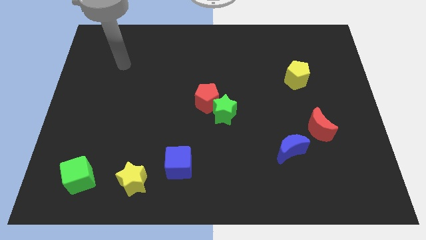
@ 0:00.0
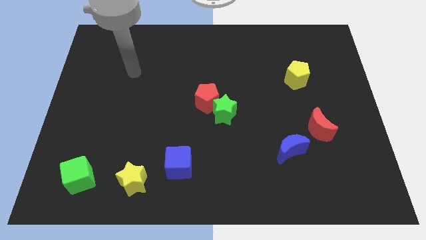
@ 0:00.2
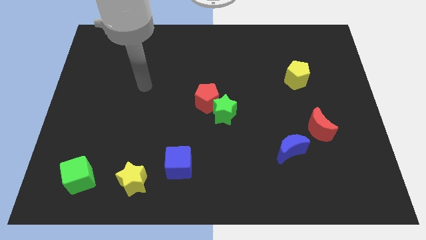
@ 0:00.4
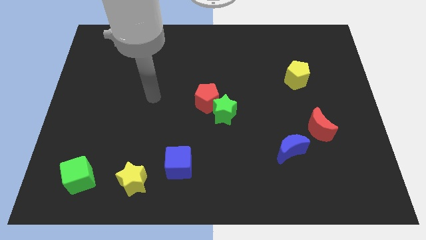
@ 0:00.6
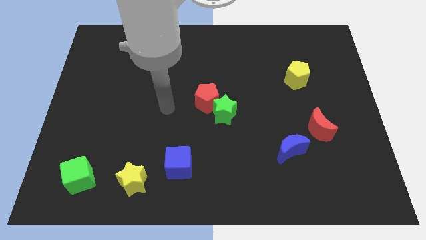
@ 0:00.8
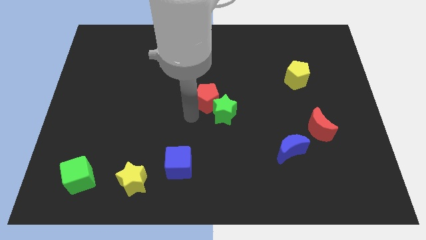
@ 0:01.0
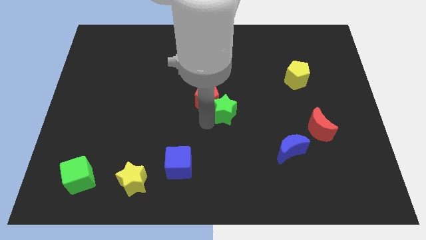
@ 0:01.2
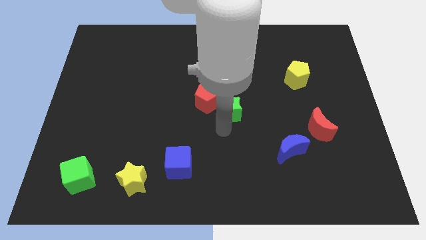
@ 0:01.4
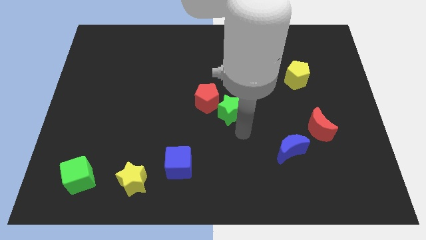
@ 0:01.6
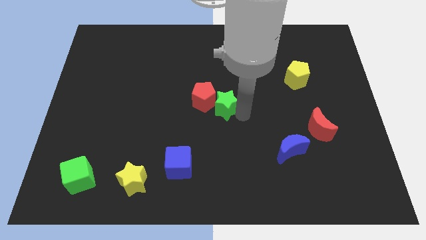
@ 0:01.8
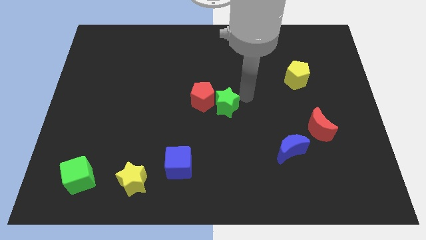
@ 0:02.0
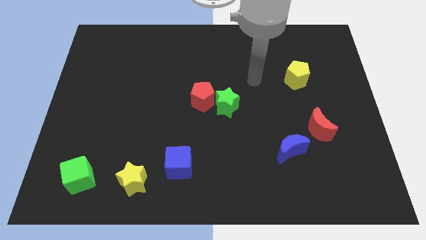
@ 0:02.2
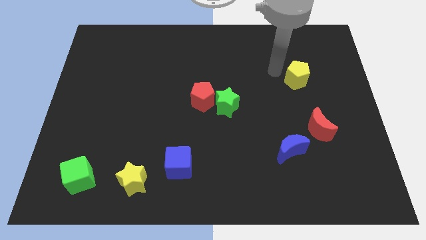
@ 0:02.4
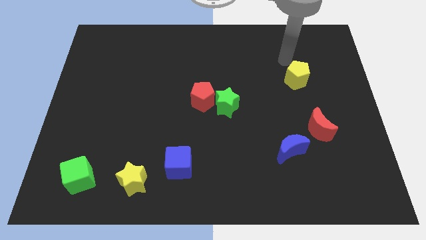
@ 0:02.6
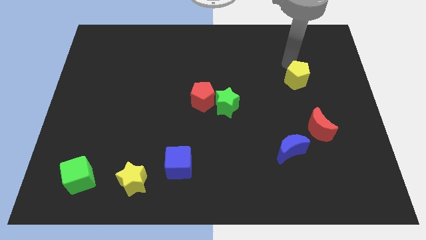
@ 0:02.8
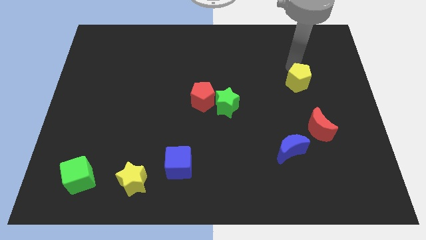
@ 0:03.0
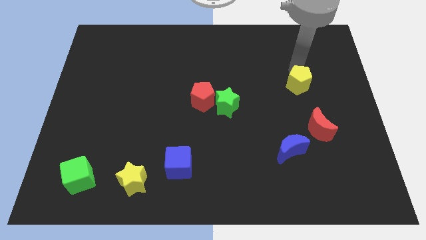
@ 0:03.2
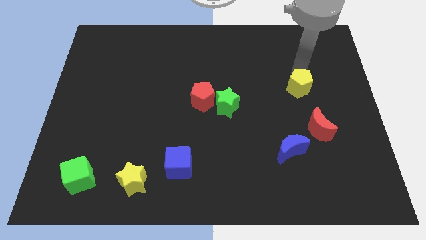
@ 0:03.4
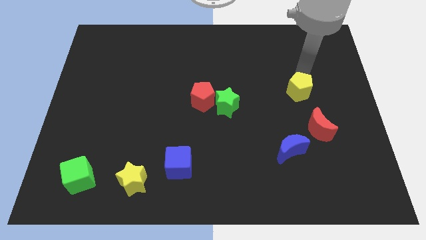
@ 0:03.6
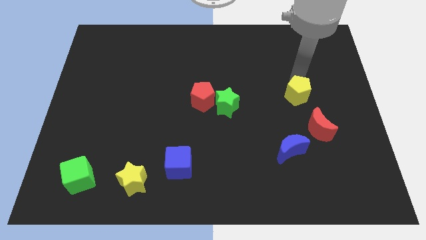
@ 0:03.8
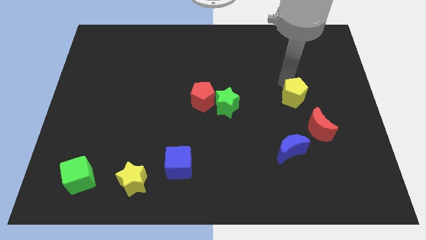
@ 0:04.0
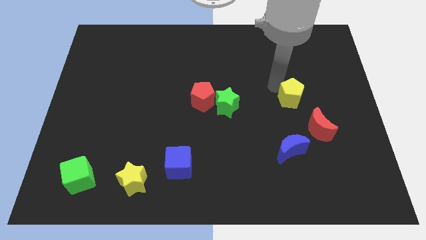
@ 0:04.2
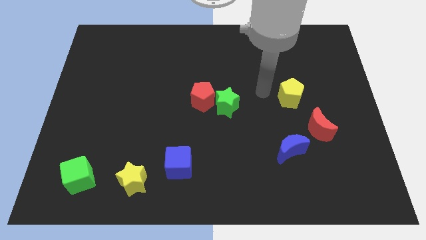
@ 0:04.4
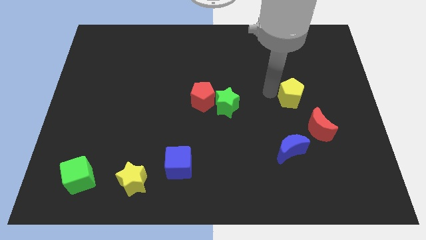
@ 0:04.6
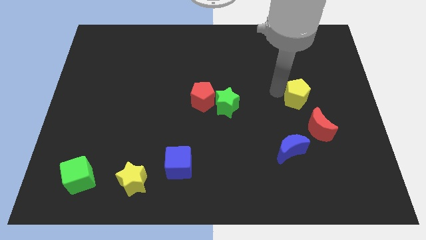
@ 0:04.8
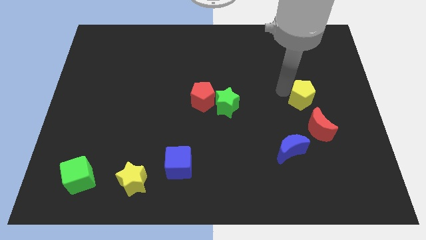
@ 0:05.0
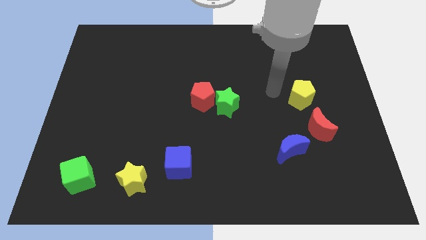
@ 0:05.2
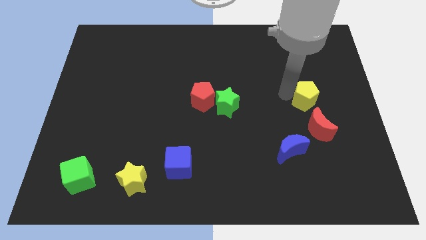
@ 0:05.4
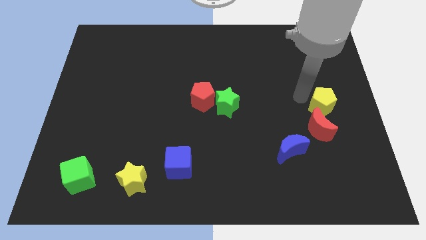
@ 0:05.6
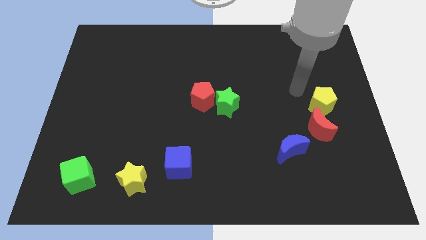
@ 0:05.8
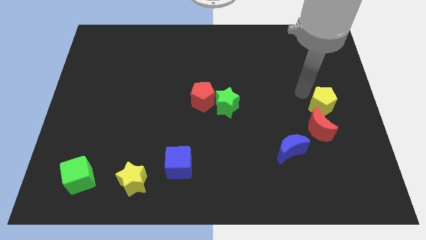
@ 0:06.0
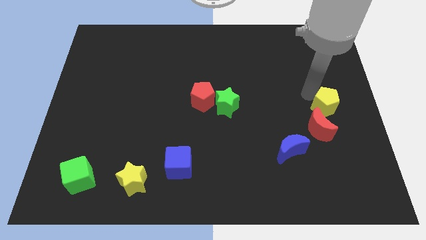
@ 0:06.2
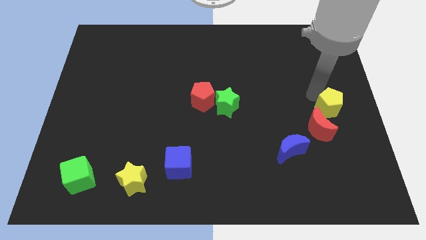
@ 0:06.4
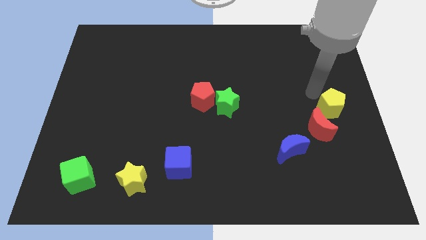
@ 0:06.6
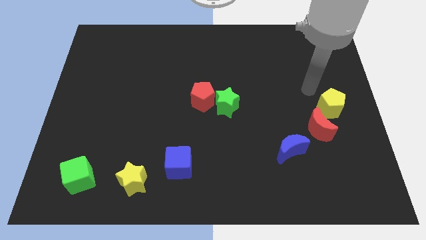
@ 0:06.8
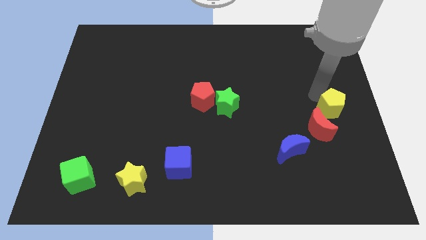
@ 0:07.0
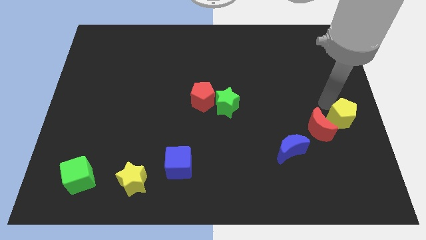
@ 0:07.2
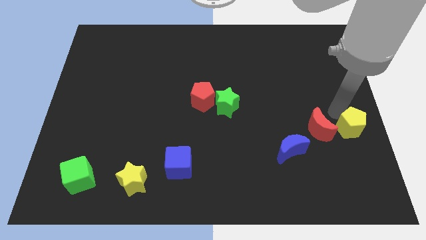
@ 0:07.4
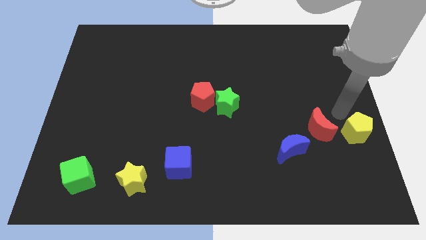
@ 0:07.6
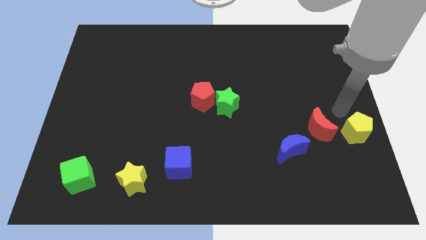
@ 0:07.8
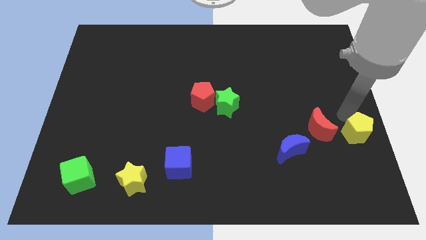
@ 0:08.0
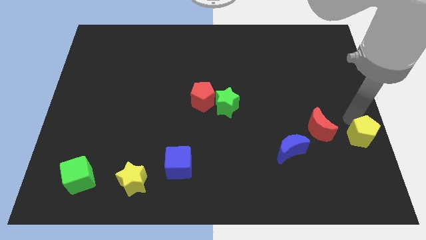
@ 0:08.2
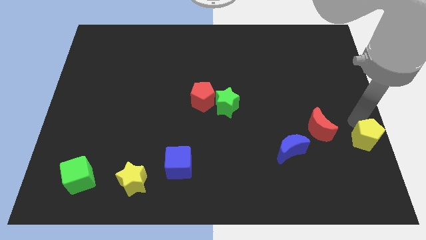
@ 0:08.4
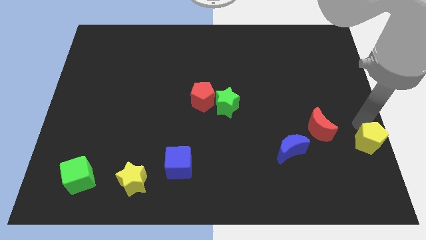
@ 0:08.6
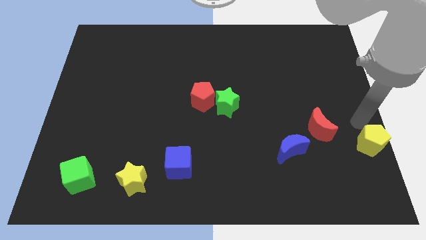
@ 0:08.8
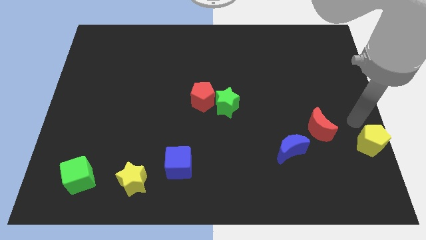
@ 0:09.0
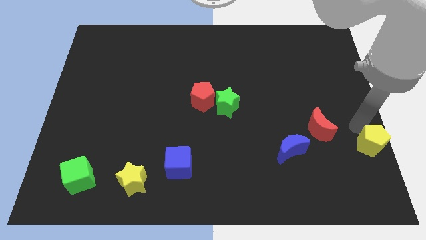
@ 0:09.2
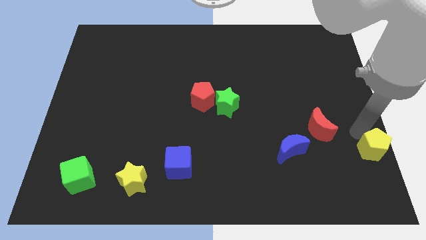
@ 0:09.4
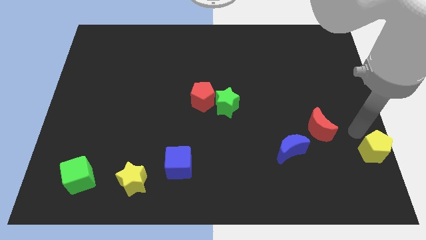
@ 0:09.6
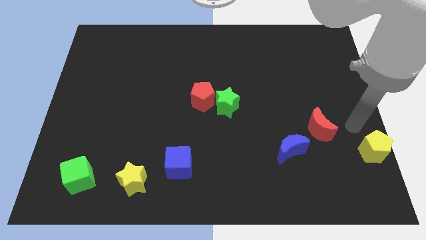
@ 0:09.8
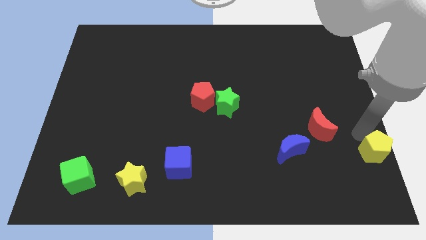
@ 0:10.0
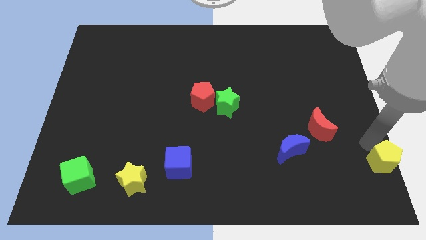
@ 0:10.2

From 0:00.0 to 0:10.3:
push the yellow pentagon to the bottom right of the board

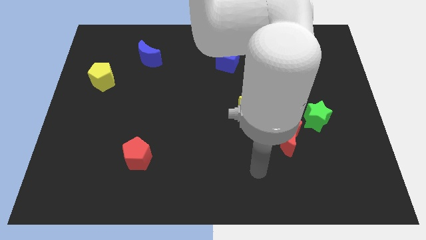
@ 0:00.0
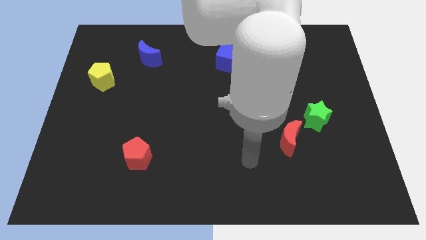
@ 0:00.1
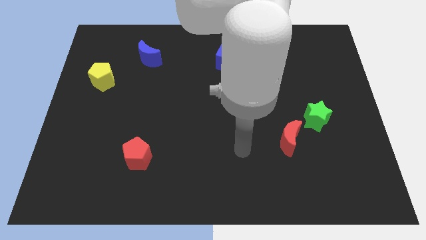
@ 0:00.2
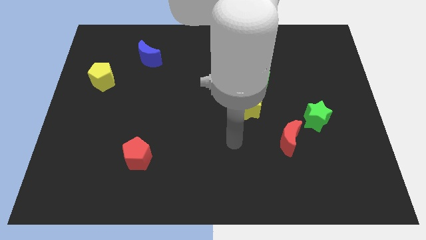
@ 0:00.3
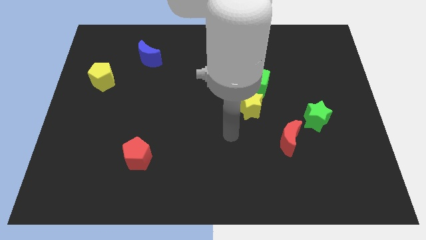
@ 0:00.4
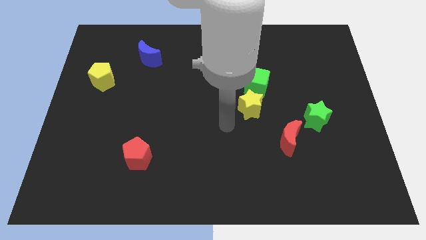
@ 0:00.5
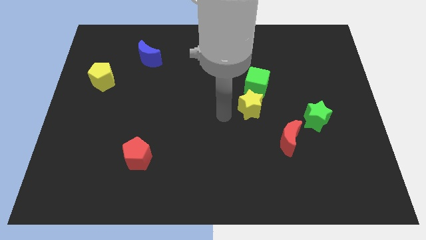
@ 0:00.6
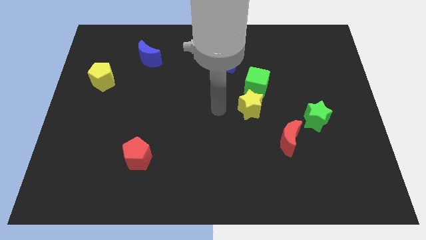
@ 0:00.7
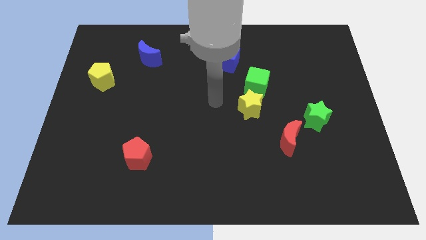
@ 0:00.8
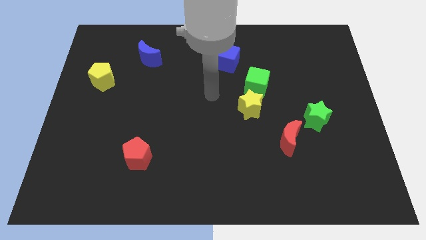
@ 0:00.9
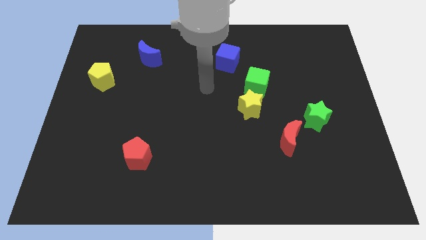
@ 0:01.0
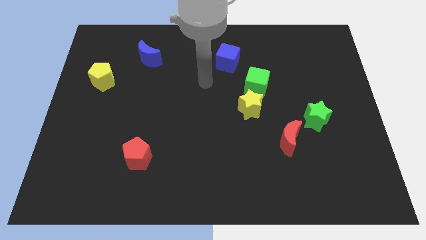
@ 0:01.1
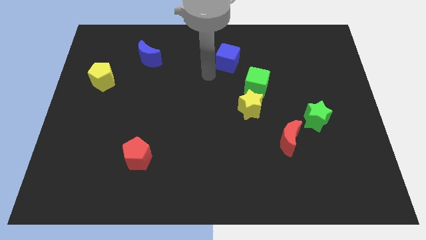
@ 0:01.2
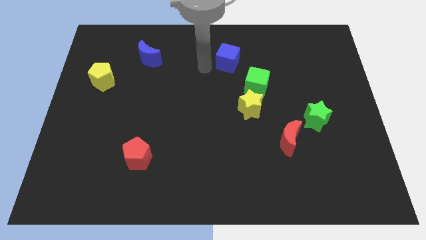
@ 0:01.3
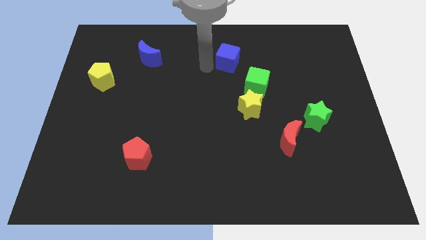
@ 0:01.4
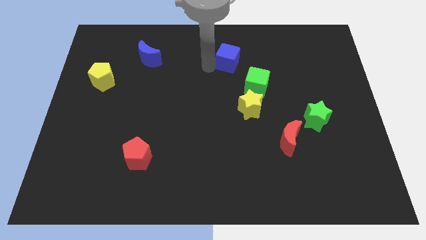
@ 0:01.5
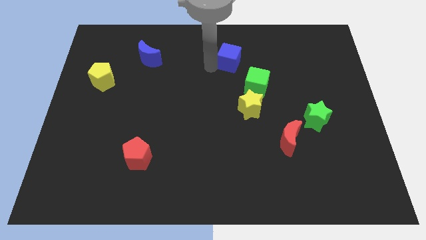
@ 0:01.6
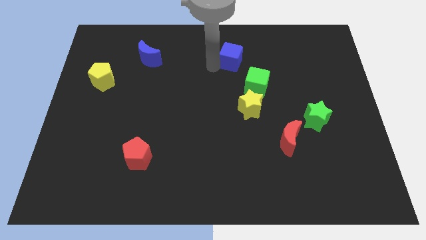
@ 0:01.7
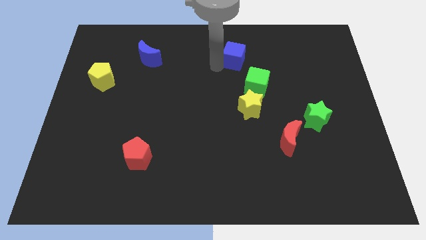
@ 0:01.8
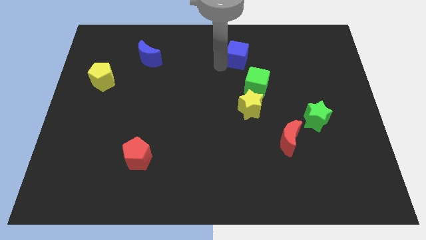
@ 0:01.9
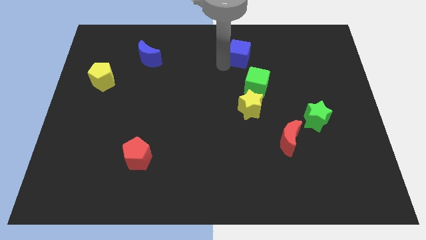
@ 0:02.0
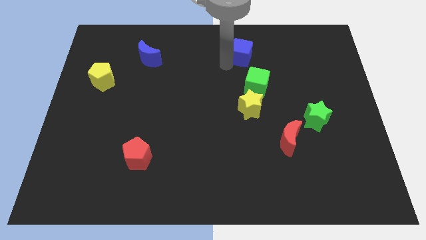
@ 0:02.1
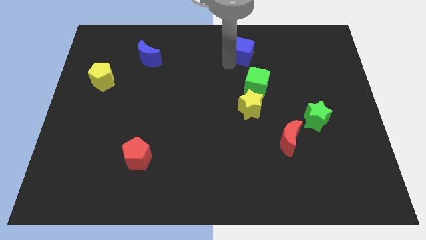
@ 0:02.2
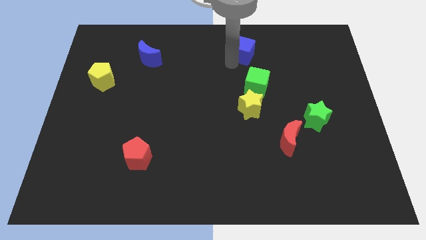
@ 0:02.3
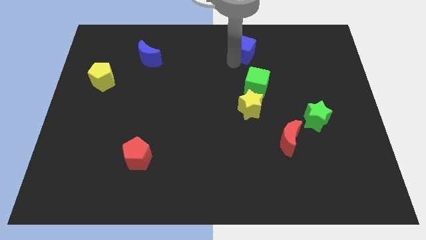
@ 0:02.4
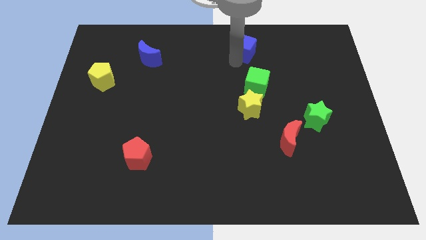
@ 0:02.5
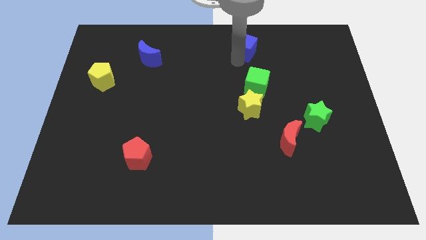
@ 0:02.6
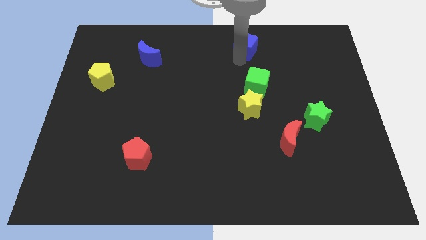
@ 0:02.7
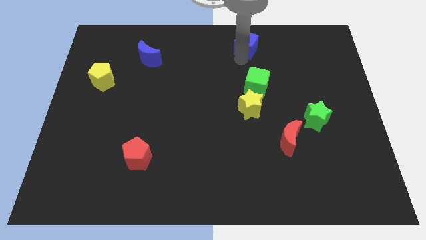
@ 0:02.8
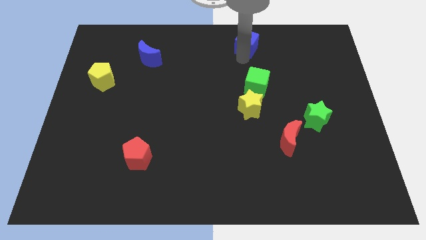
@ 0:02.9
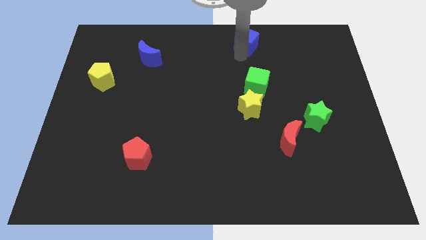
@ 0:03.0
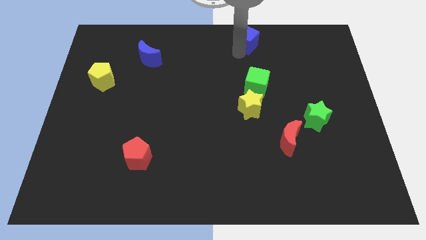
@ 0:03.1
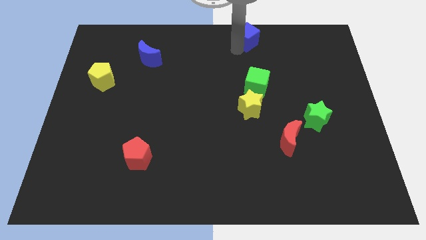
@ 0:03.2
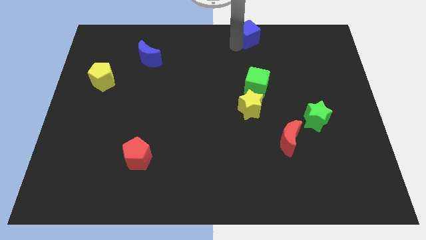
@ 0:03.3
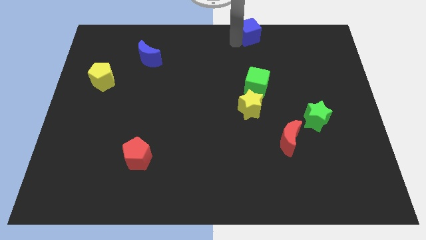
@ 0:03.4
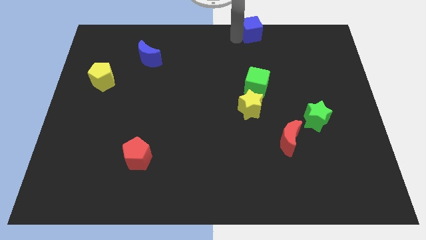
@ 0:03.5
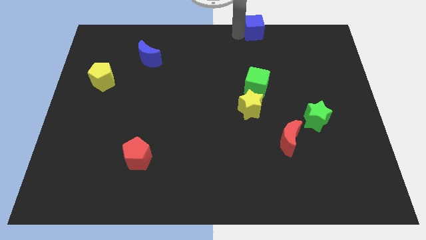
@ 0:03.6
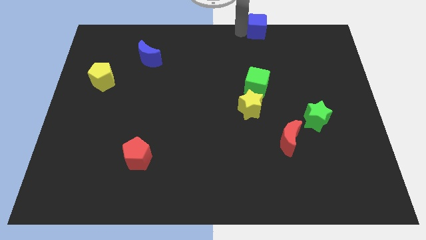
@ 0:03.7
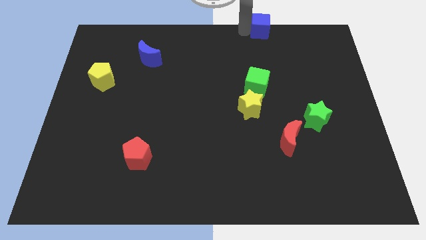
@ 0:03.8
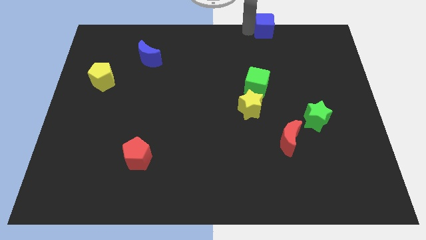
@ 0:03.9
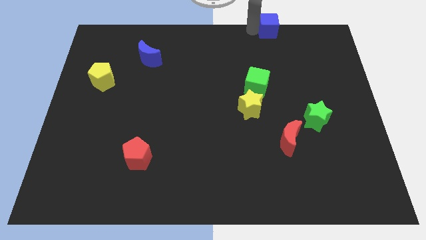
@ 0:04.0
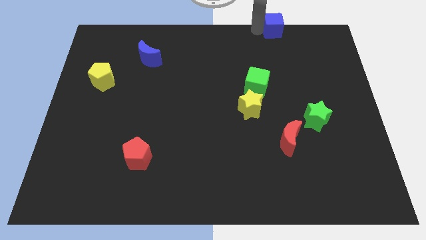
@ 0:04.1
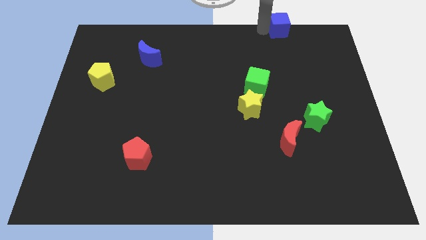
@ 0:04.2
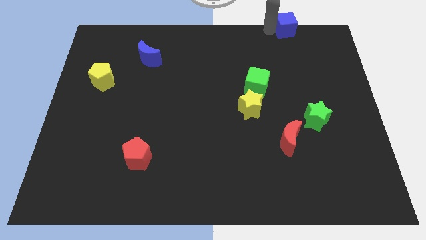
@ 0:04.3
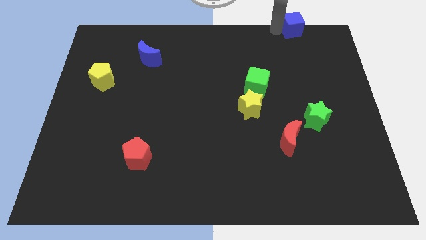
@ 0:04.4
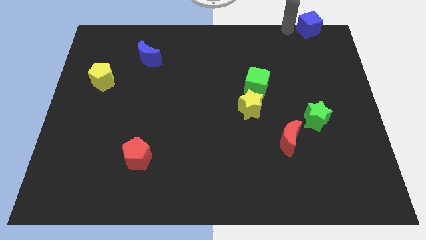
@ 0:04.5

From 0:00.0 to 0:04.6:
move the blue cube to the top right corner
